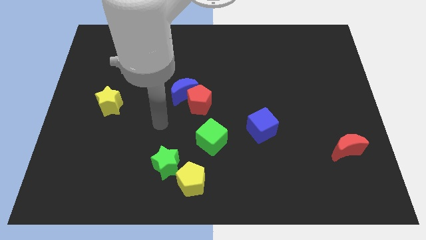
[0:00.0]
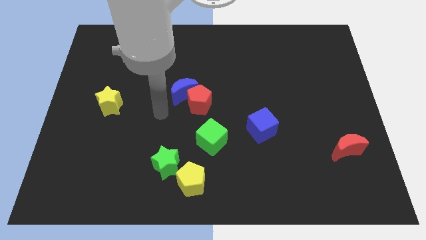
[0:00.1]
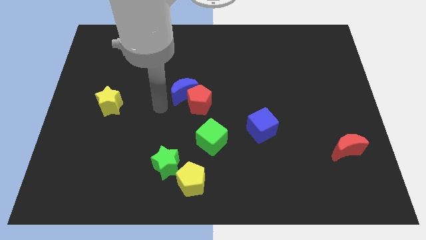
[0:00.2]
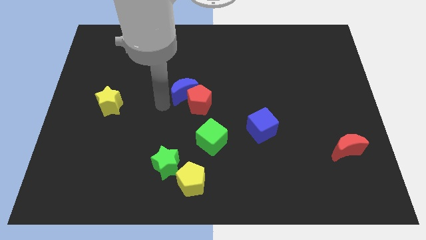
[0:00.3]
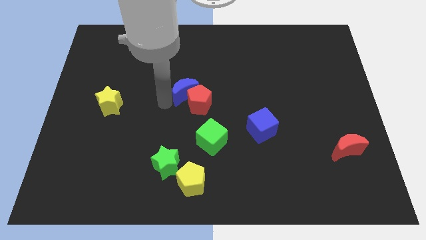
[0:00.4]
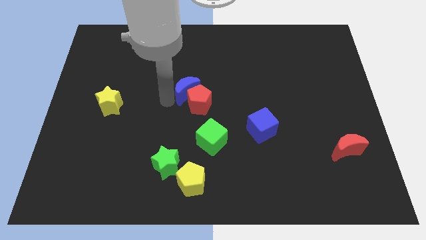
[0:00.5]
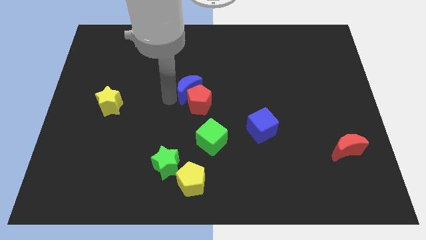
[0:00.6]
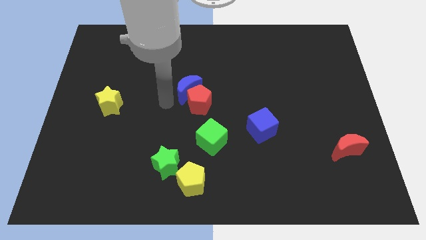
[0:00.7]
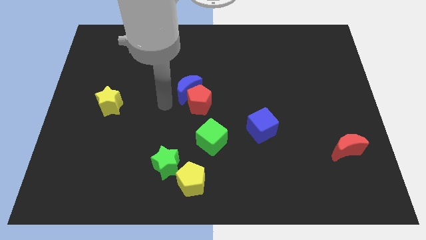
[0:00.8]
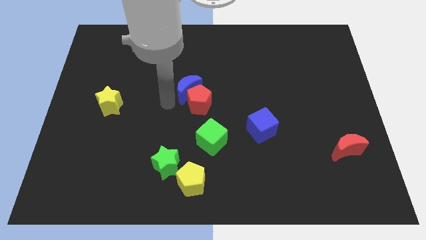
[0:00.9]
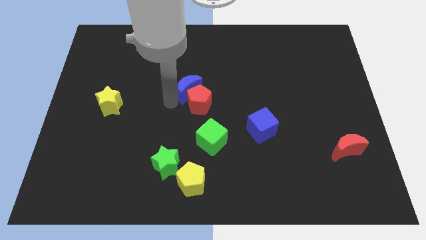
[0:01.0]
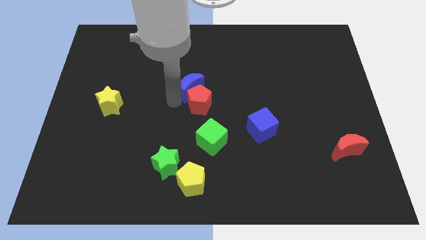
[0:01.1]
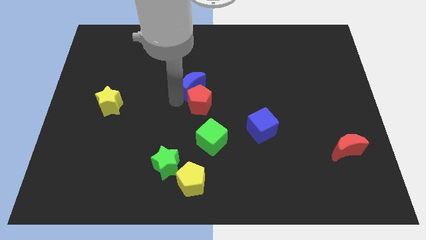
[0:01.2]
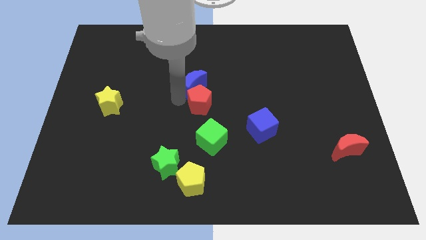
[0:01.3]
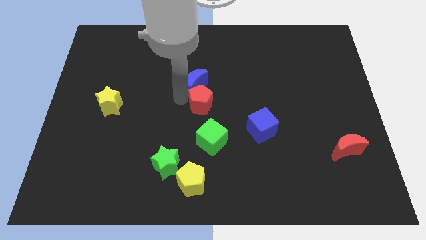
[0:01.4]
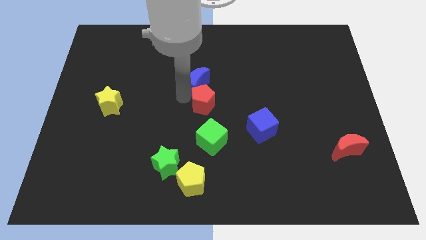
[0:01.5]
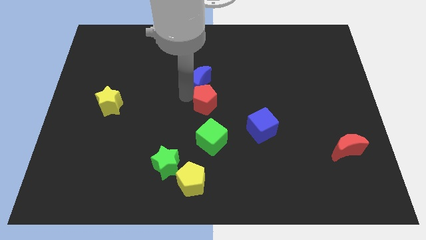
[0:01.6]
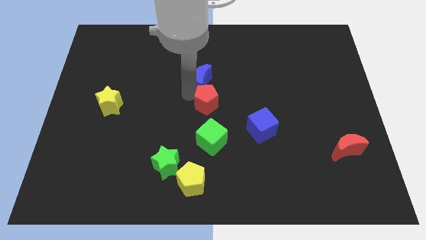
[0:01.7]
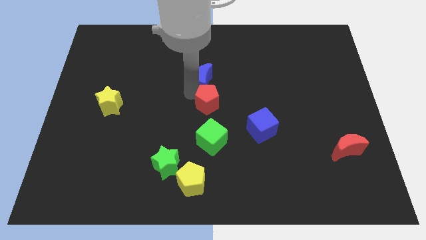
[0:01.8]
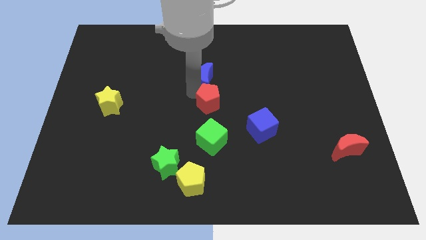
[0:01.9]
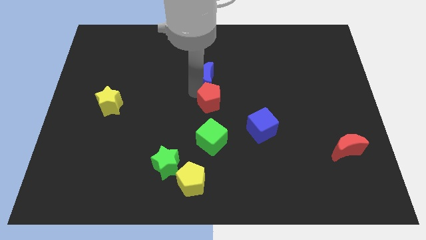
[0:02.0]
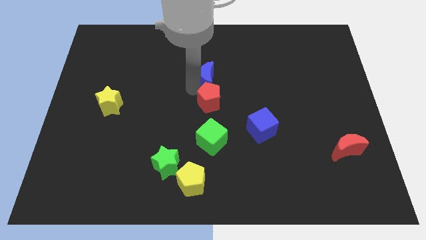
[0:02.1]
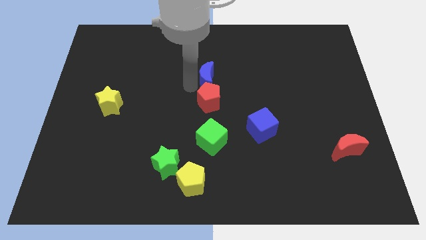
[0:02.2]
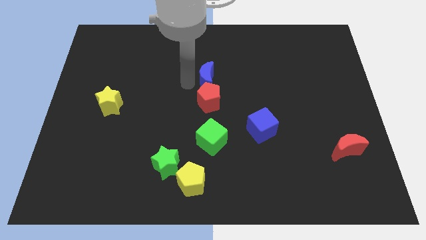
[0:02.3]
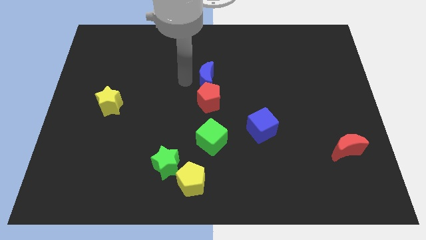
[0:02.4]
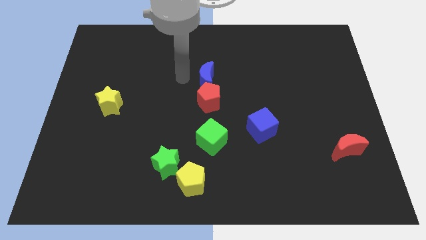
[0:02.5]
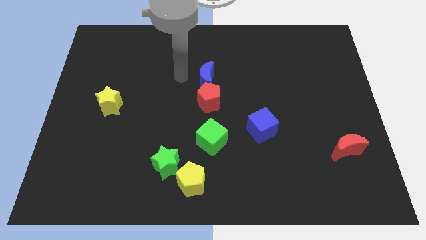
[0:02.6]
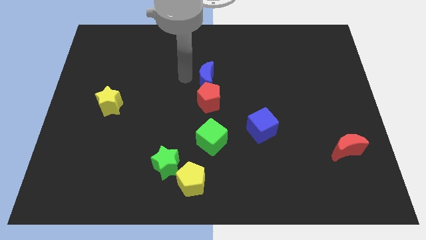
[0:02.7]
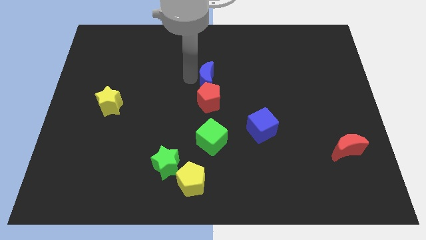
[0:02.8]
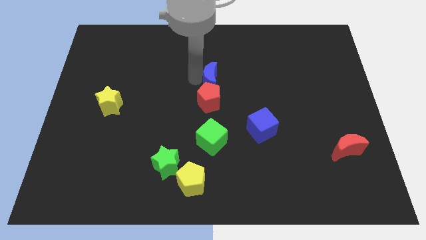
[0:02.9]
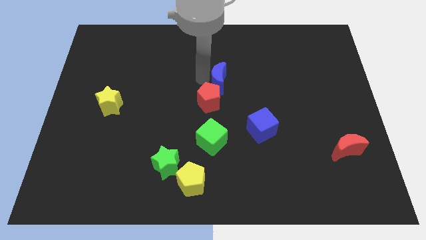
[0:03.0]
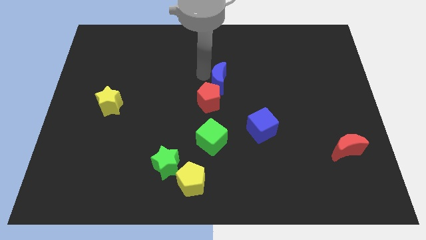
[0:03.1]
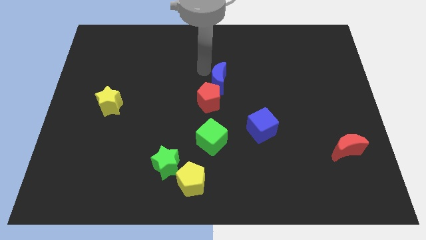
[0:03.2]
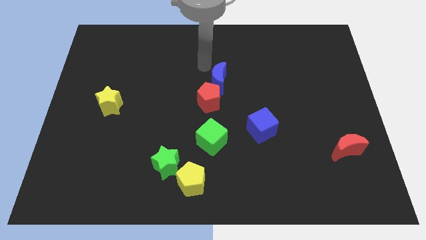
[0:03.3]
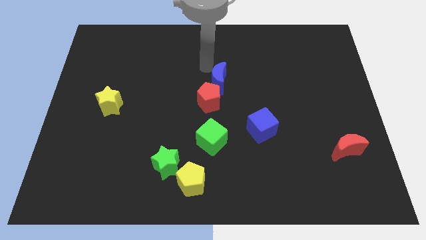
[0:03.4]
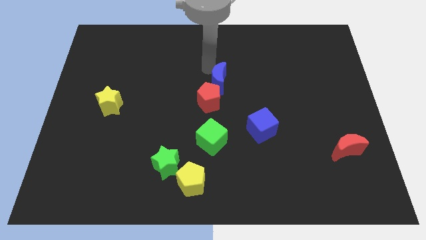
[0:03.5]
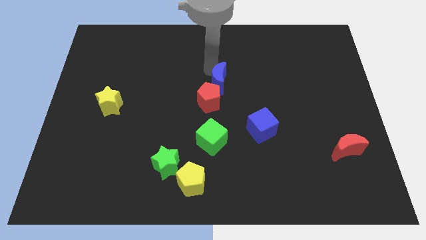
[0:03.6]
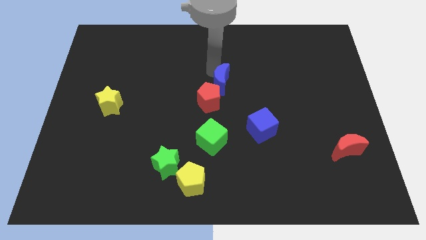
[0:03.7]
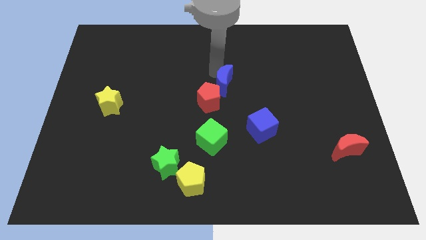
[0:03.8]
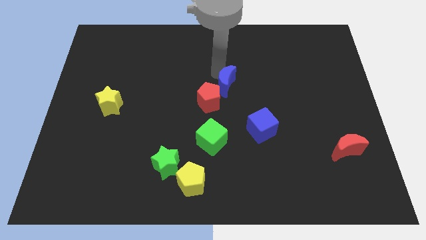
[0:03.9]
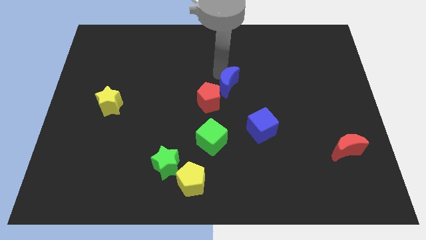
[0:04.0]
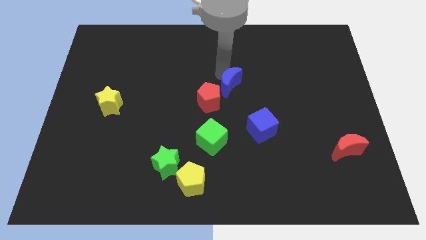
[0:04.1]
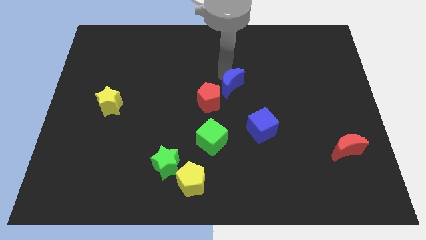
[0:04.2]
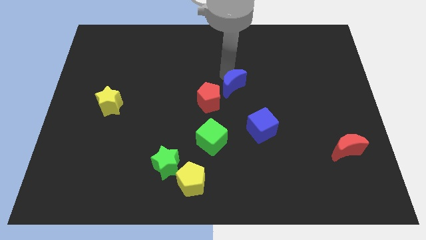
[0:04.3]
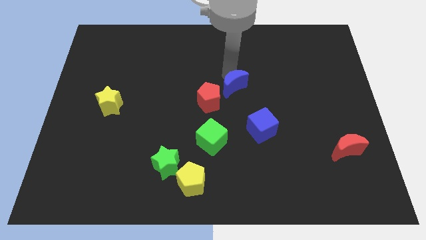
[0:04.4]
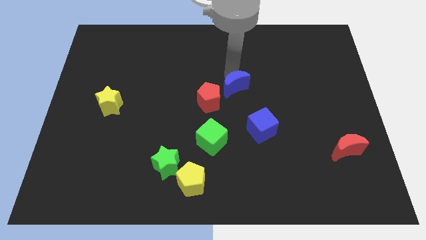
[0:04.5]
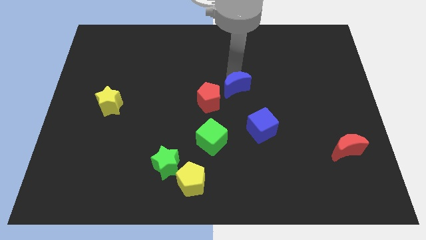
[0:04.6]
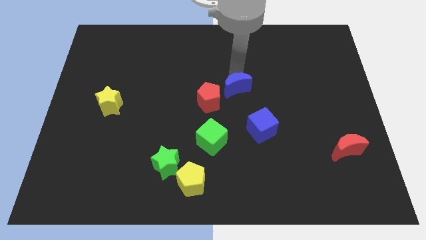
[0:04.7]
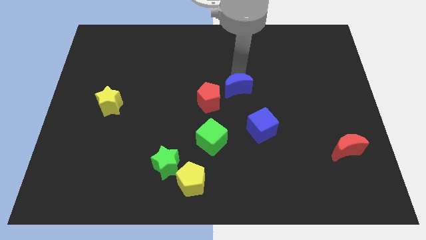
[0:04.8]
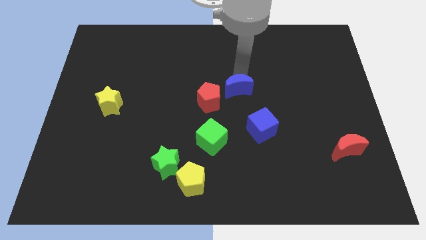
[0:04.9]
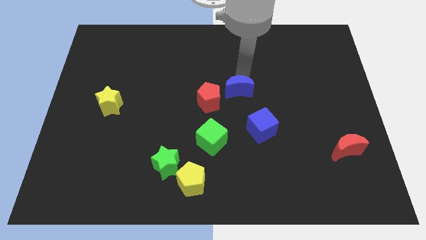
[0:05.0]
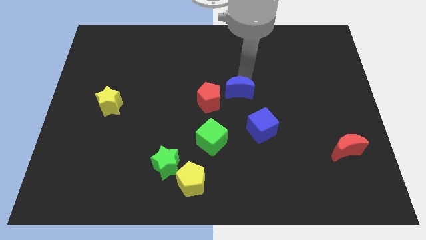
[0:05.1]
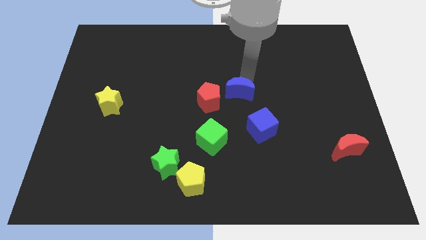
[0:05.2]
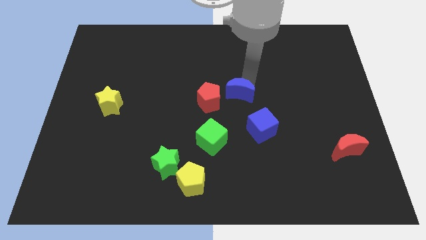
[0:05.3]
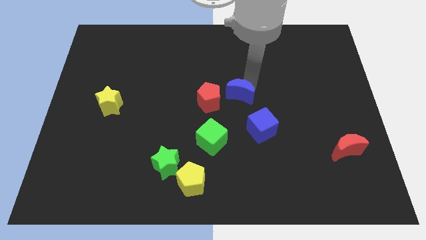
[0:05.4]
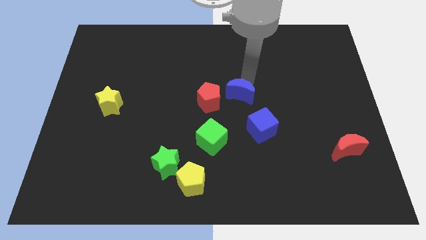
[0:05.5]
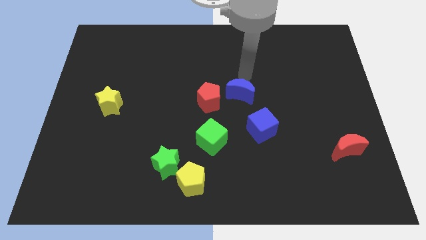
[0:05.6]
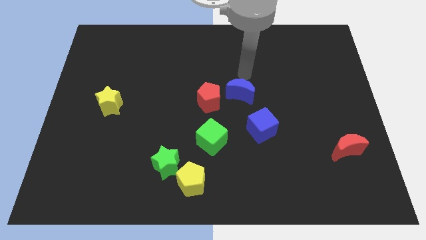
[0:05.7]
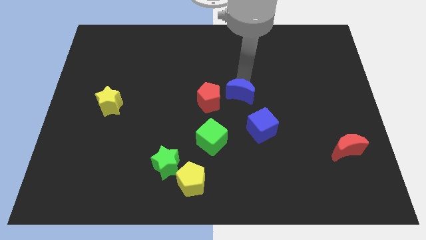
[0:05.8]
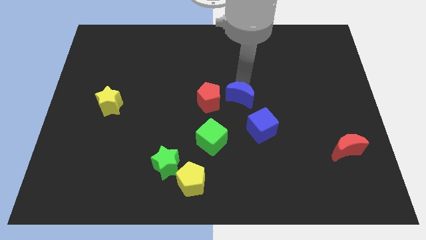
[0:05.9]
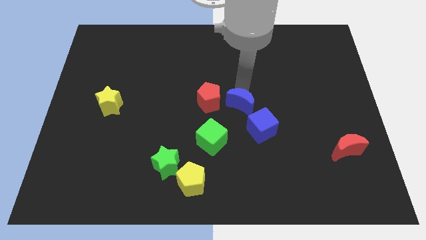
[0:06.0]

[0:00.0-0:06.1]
move the blue moon to the top right side of the green cube

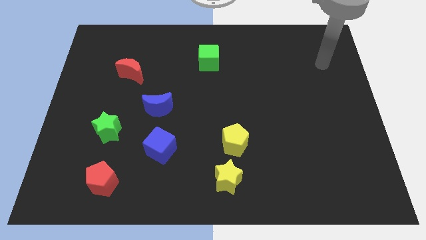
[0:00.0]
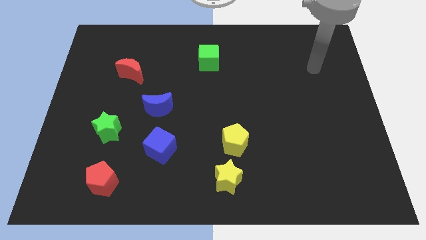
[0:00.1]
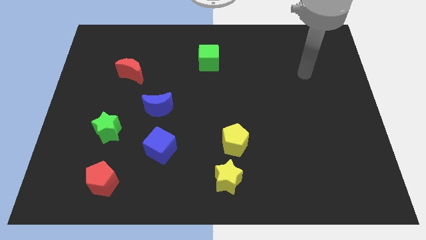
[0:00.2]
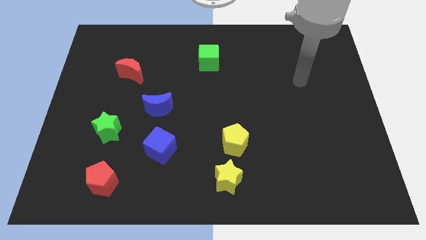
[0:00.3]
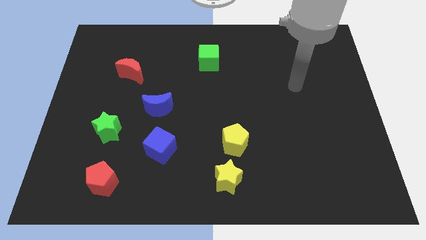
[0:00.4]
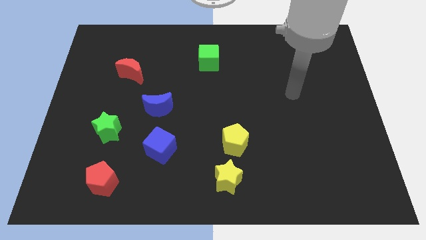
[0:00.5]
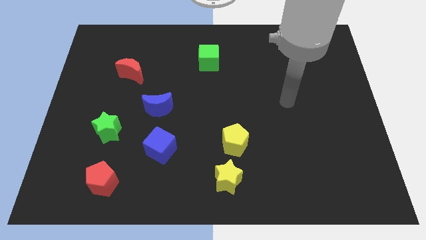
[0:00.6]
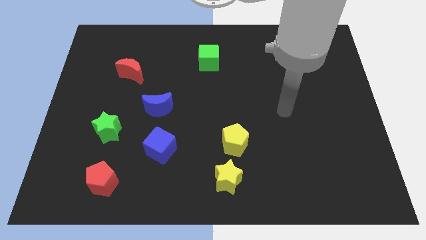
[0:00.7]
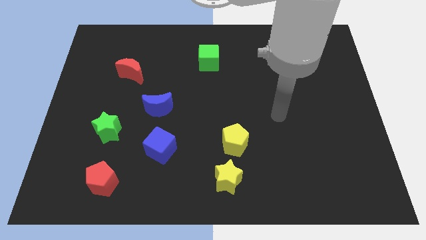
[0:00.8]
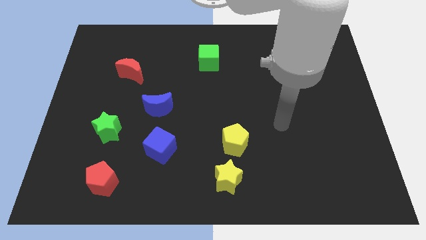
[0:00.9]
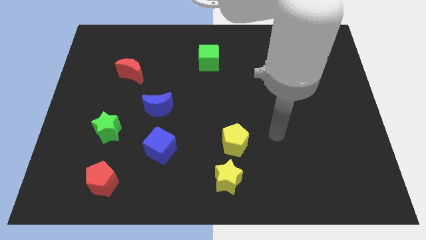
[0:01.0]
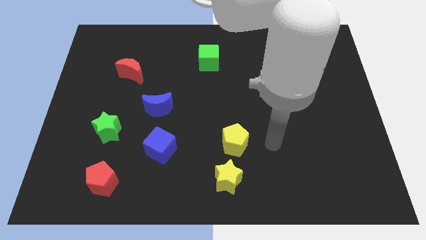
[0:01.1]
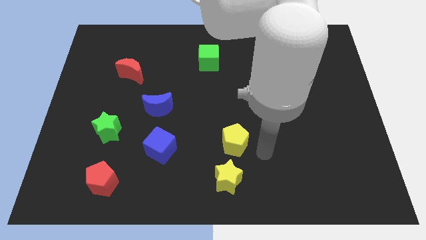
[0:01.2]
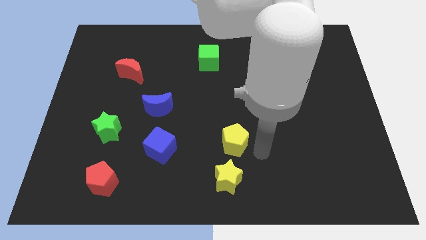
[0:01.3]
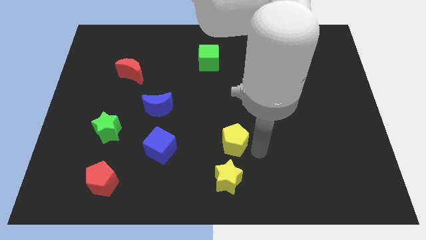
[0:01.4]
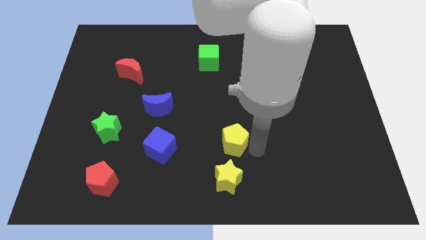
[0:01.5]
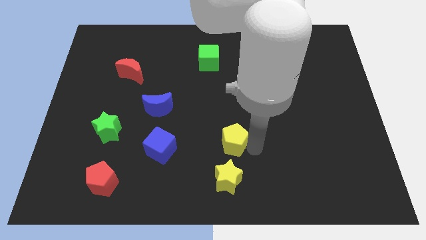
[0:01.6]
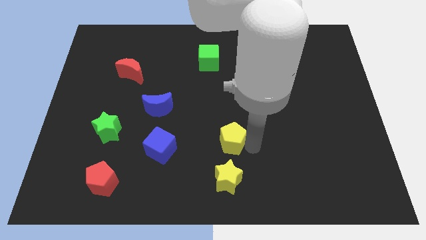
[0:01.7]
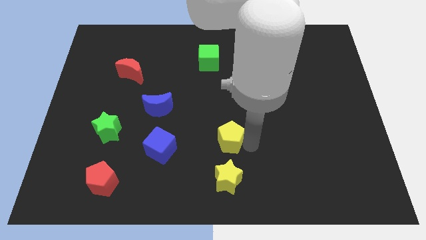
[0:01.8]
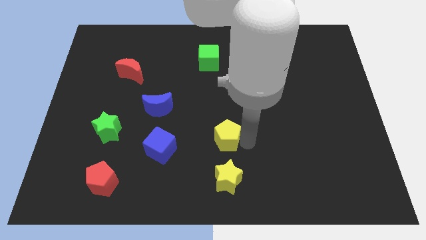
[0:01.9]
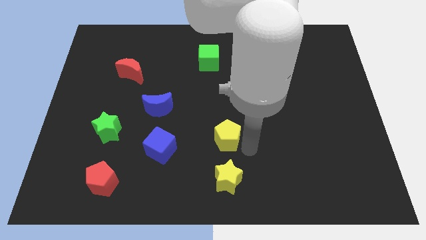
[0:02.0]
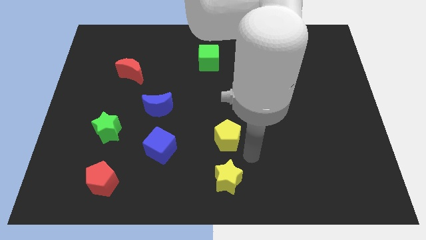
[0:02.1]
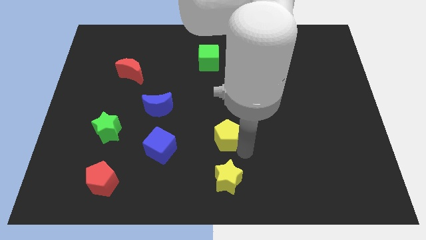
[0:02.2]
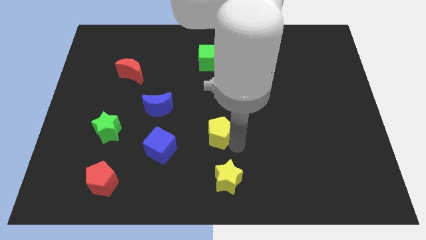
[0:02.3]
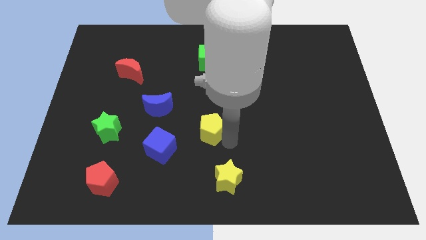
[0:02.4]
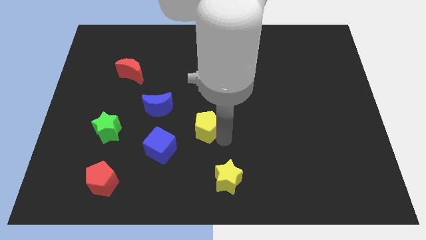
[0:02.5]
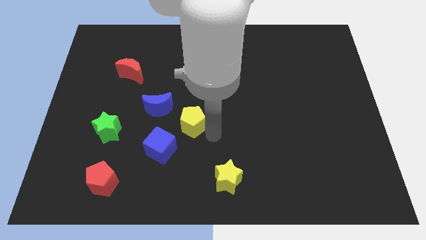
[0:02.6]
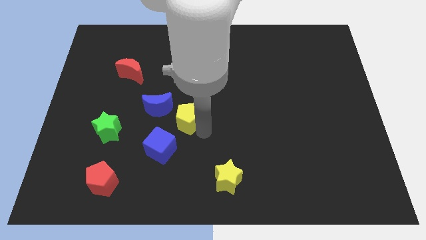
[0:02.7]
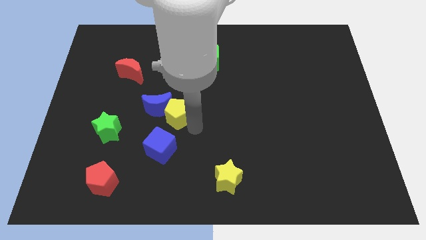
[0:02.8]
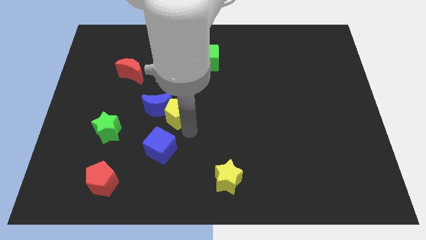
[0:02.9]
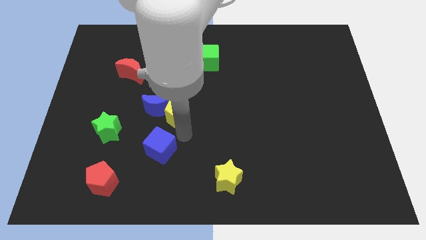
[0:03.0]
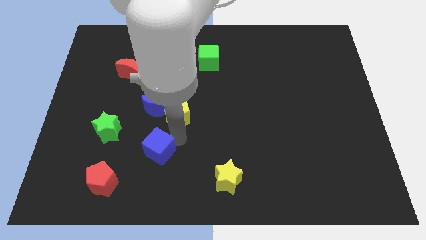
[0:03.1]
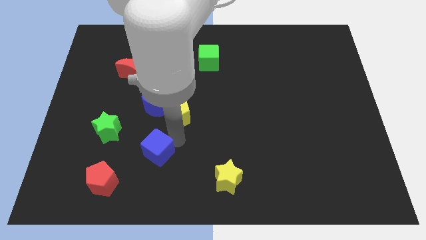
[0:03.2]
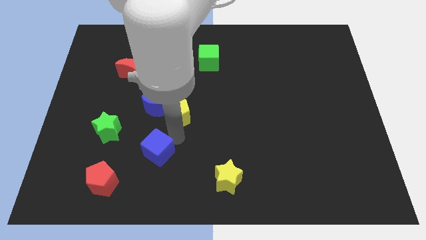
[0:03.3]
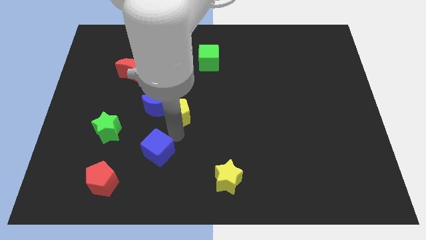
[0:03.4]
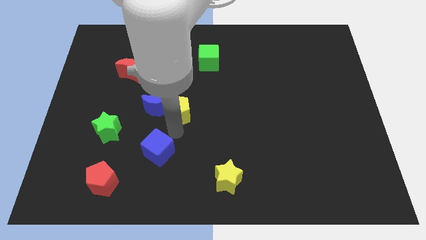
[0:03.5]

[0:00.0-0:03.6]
move the yellow pentagon to the top right side of the blue moon
